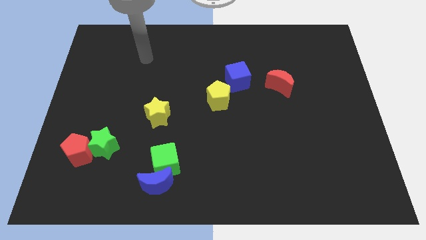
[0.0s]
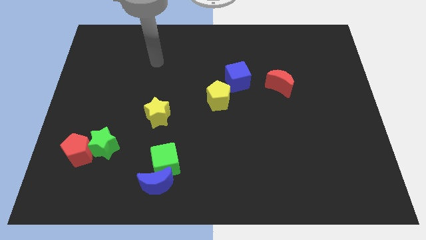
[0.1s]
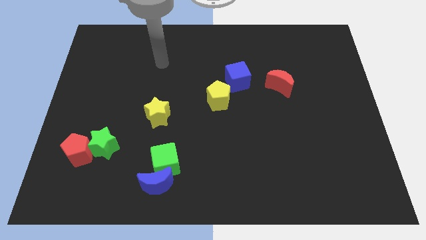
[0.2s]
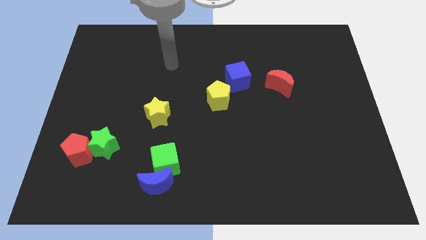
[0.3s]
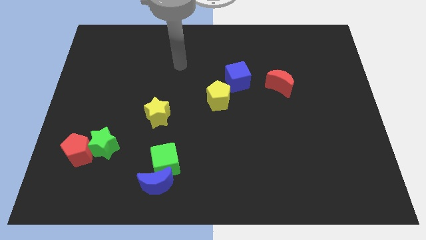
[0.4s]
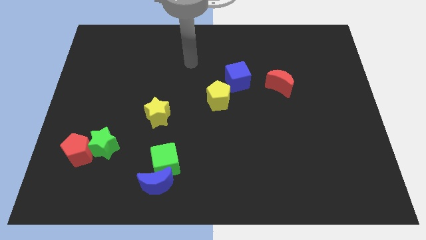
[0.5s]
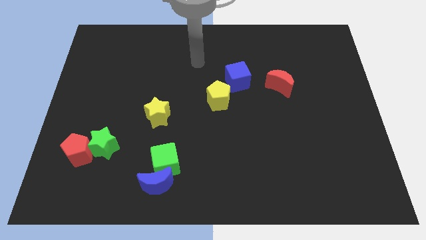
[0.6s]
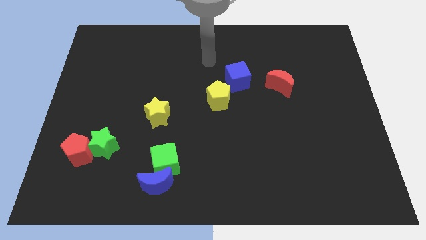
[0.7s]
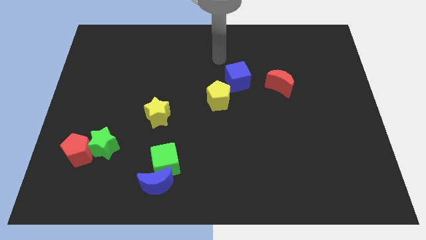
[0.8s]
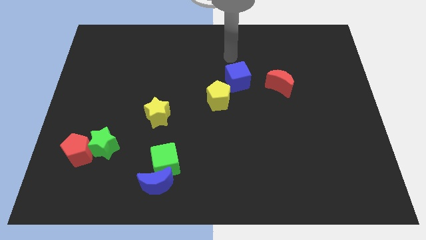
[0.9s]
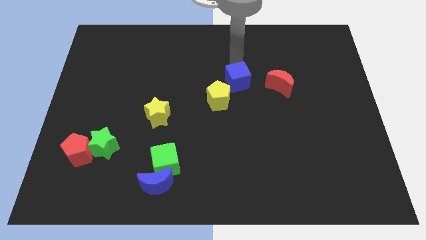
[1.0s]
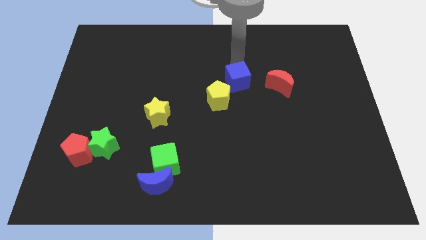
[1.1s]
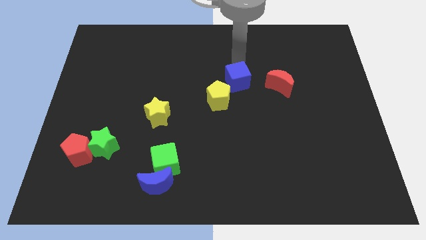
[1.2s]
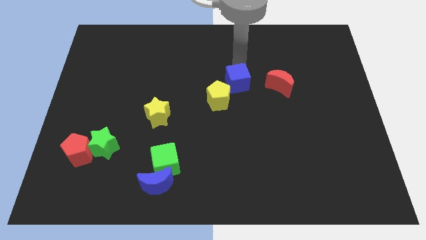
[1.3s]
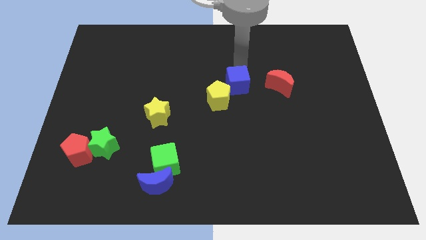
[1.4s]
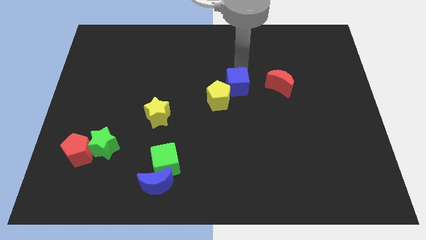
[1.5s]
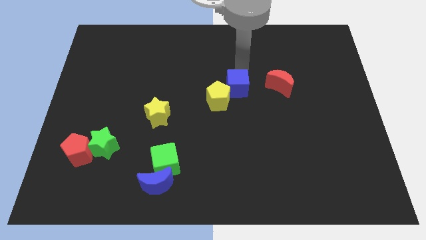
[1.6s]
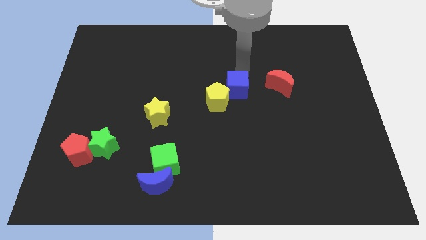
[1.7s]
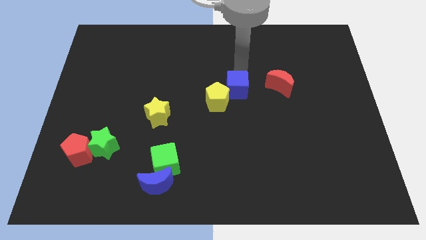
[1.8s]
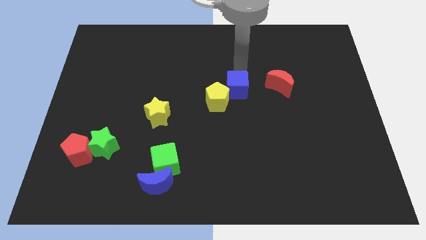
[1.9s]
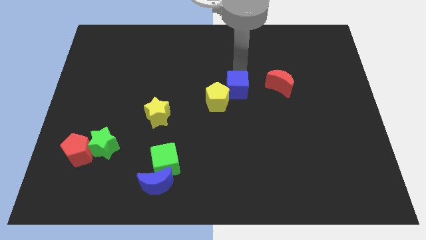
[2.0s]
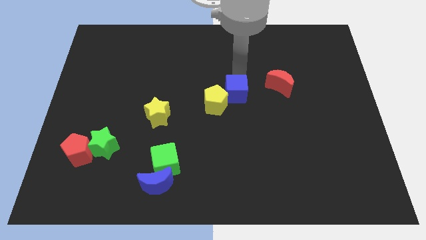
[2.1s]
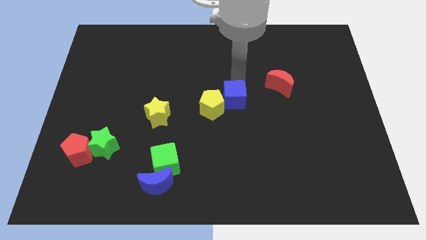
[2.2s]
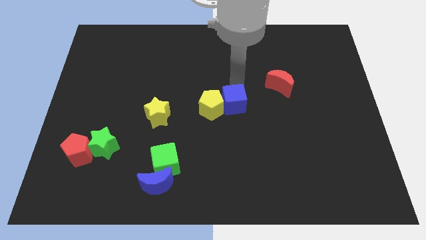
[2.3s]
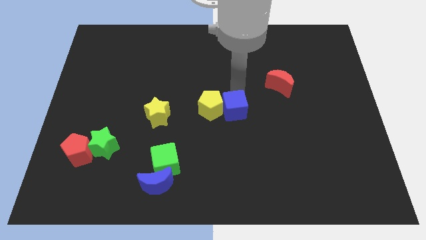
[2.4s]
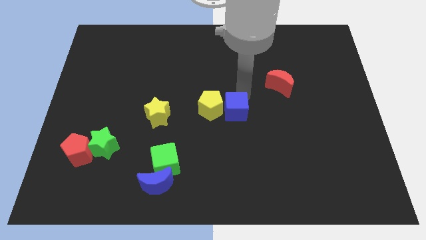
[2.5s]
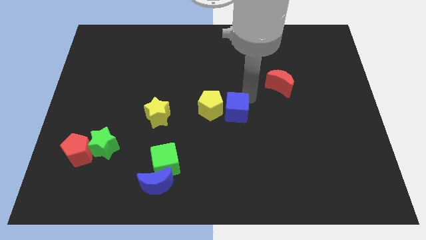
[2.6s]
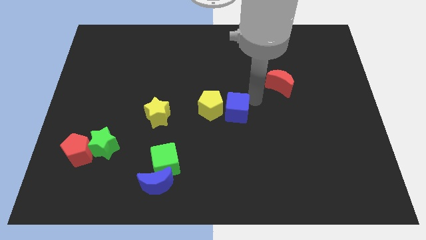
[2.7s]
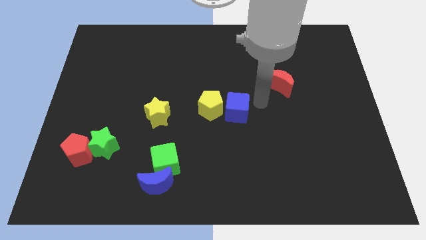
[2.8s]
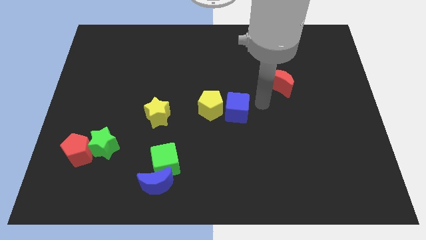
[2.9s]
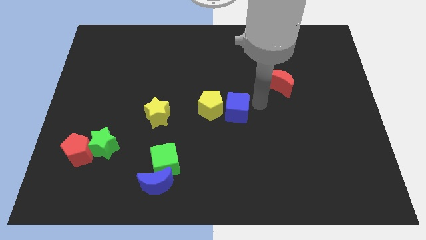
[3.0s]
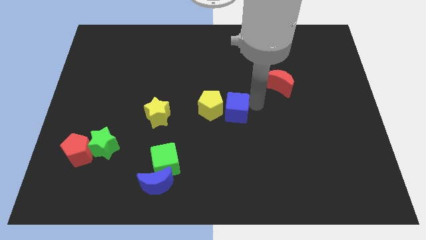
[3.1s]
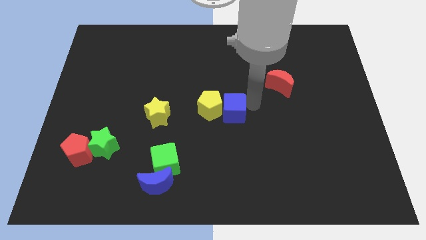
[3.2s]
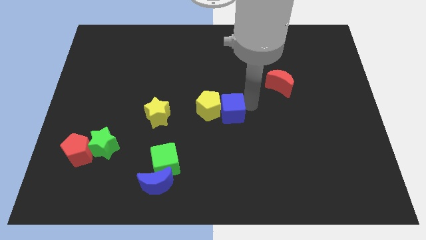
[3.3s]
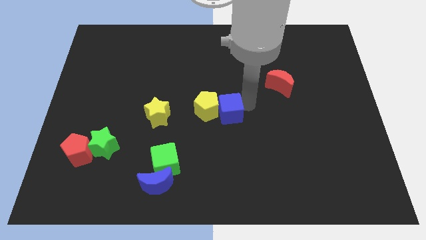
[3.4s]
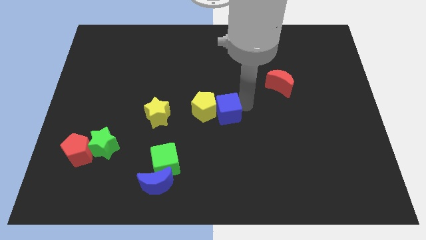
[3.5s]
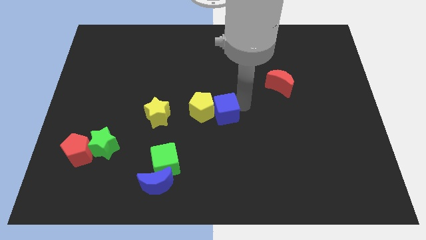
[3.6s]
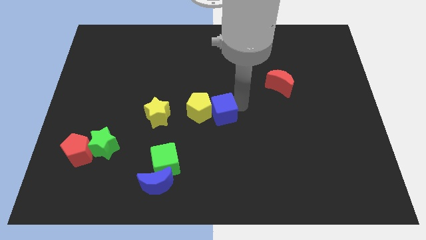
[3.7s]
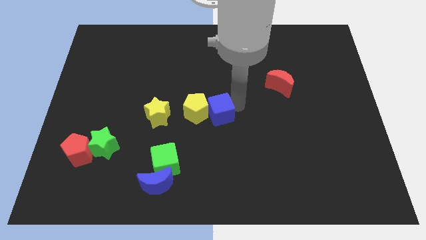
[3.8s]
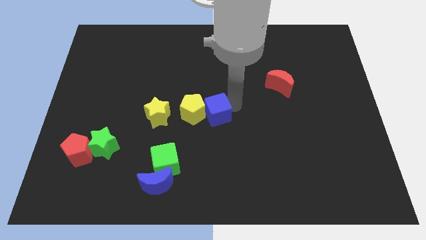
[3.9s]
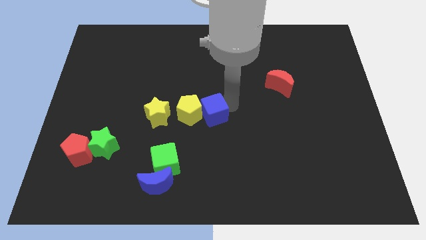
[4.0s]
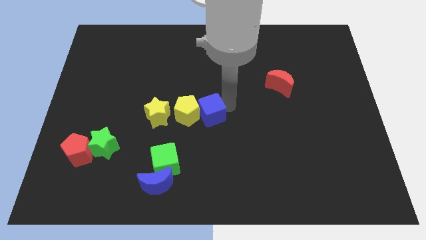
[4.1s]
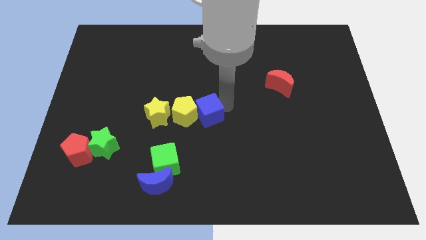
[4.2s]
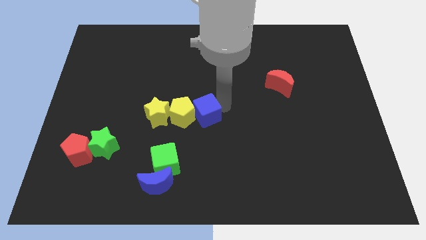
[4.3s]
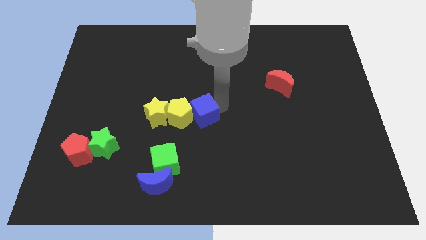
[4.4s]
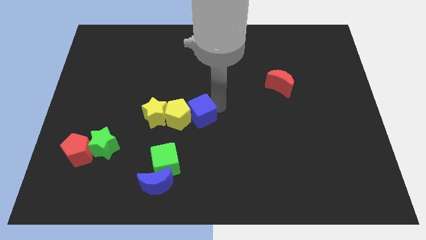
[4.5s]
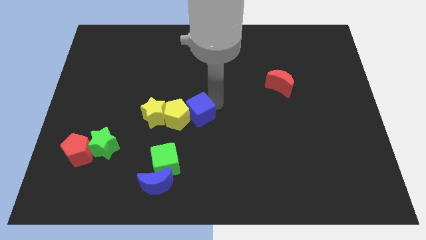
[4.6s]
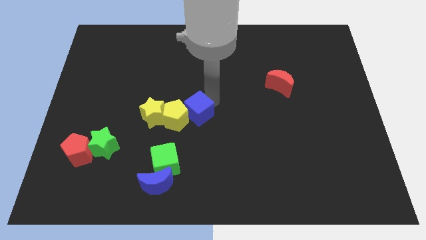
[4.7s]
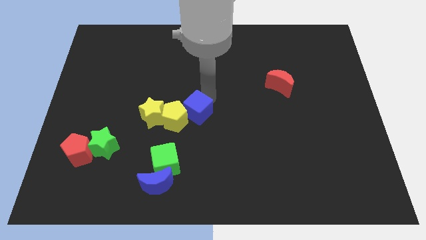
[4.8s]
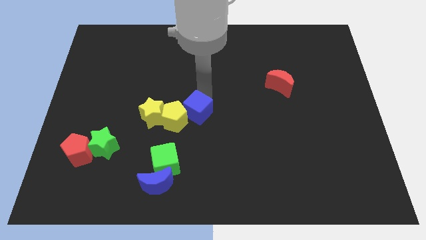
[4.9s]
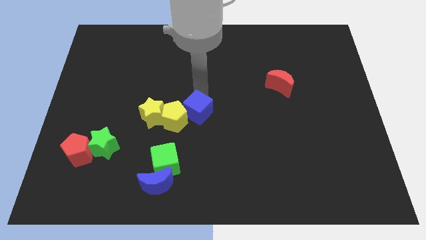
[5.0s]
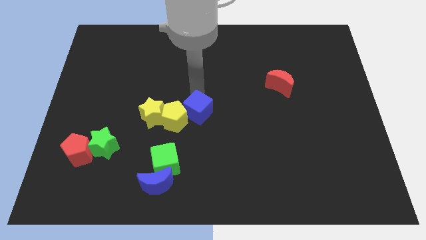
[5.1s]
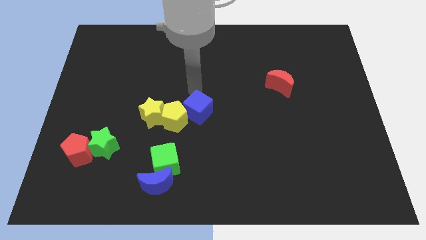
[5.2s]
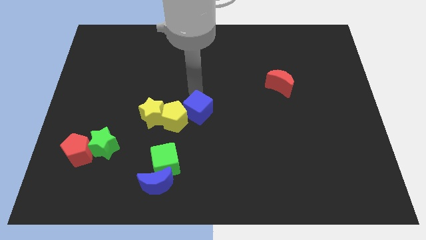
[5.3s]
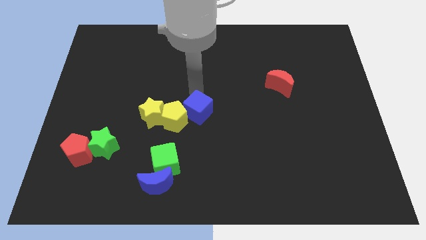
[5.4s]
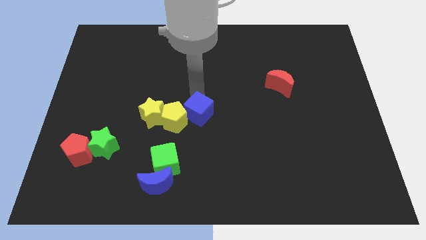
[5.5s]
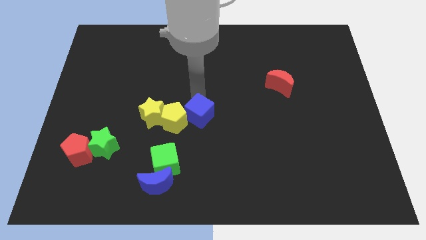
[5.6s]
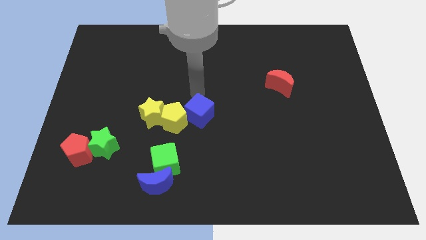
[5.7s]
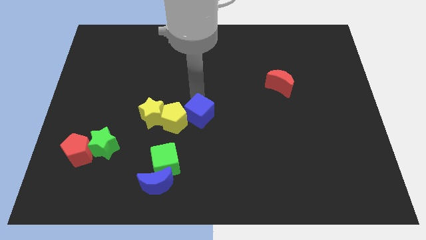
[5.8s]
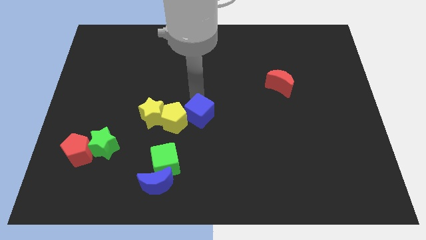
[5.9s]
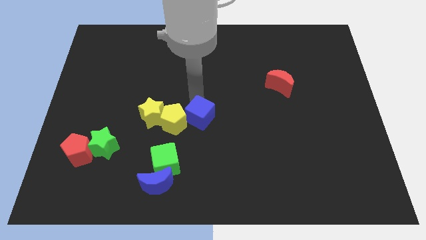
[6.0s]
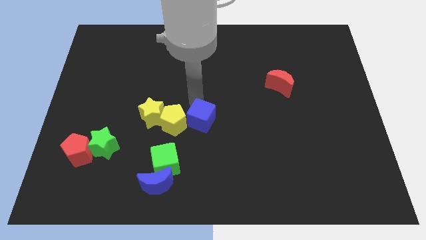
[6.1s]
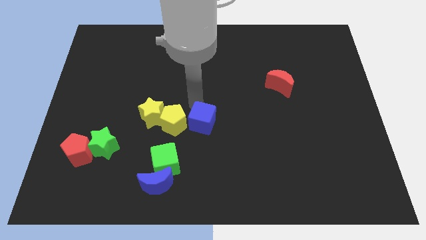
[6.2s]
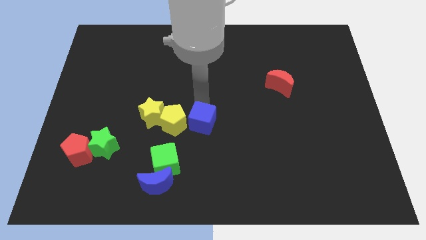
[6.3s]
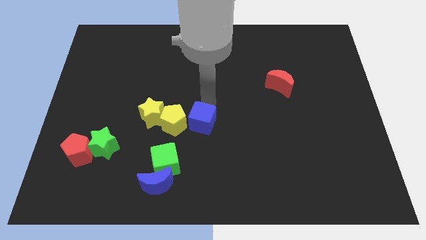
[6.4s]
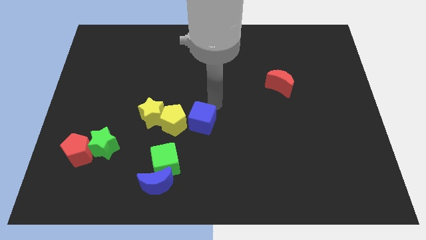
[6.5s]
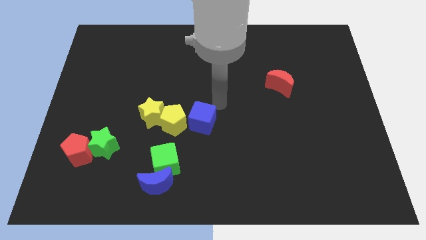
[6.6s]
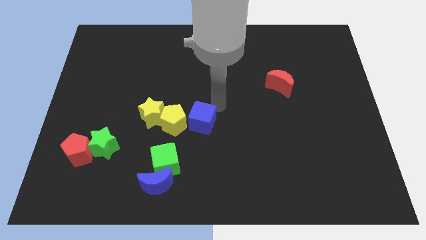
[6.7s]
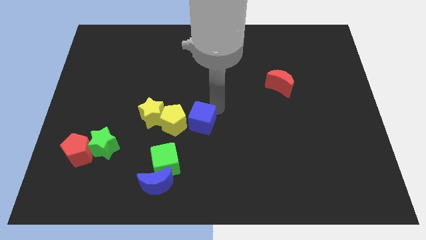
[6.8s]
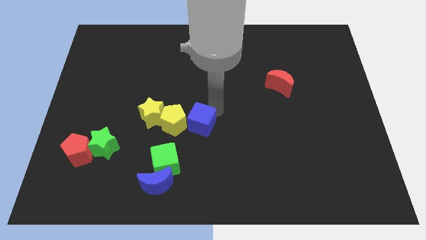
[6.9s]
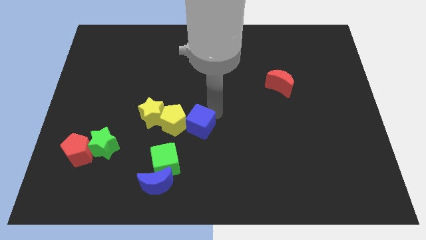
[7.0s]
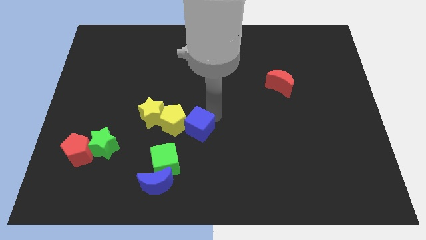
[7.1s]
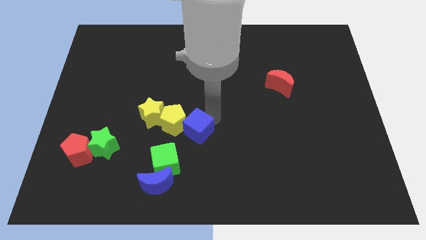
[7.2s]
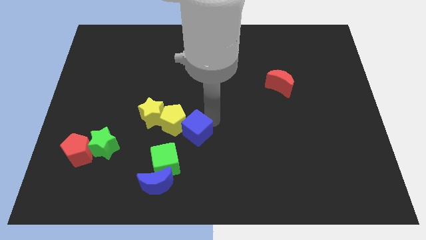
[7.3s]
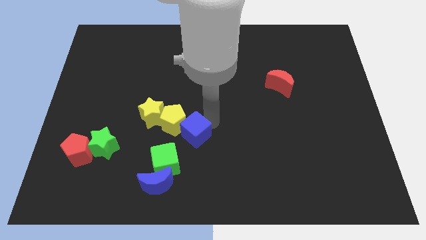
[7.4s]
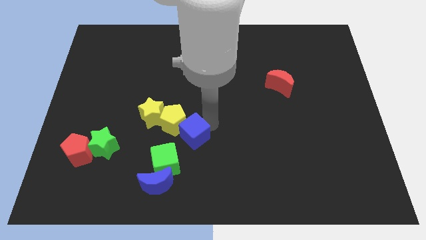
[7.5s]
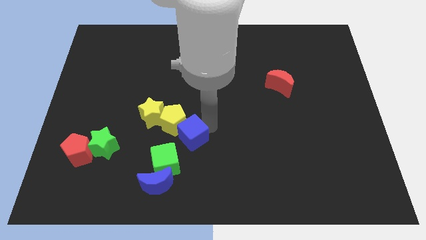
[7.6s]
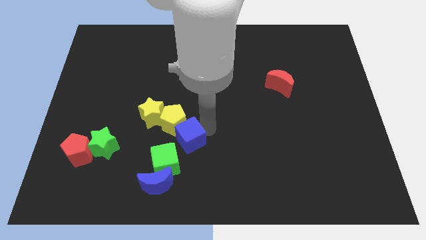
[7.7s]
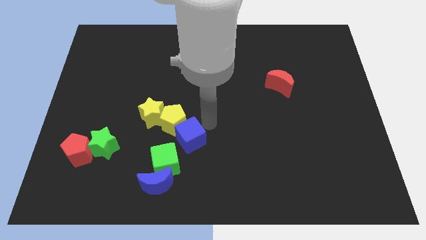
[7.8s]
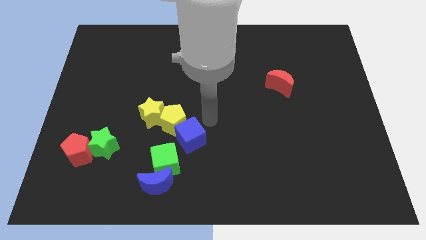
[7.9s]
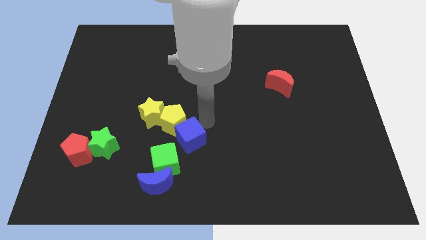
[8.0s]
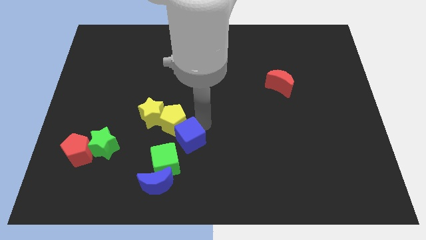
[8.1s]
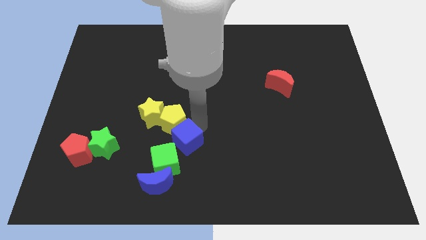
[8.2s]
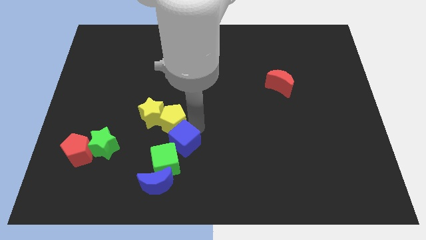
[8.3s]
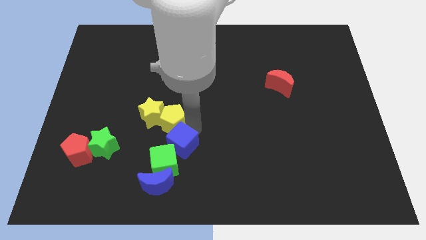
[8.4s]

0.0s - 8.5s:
slide the blue cube close to the green cube
